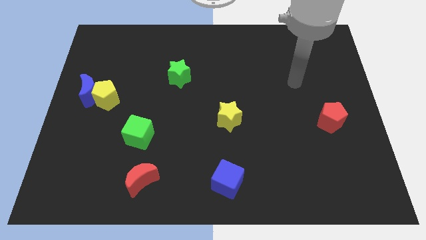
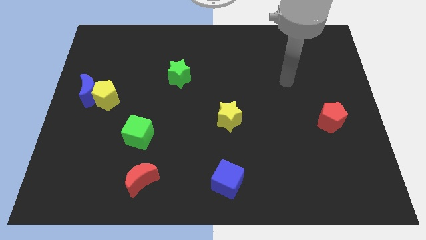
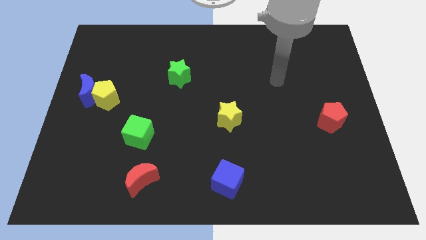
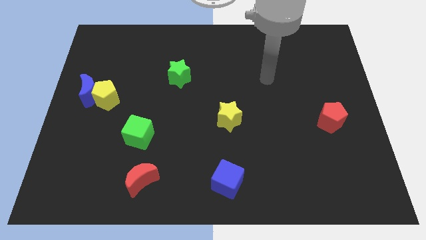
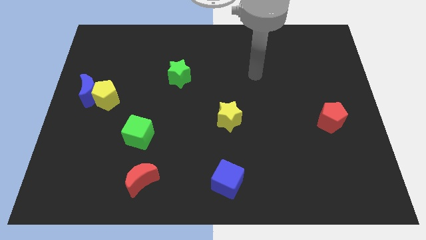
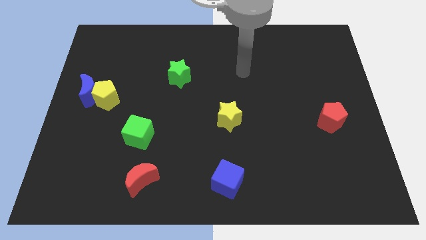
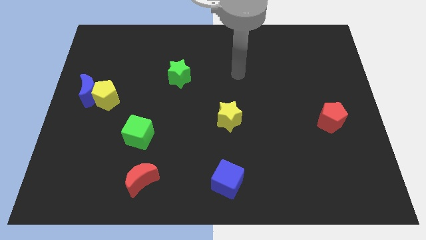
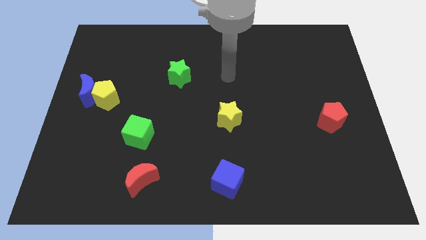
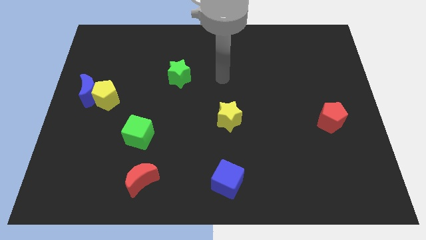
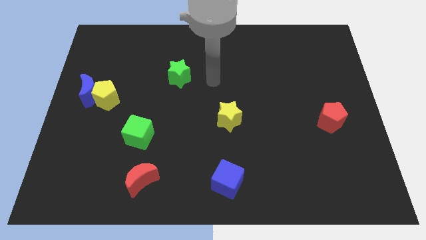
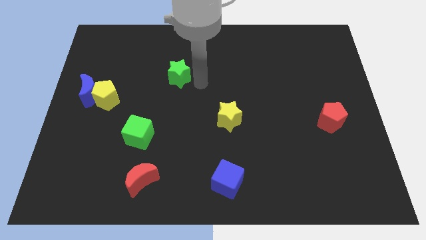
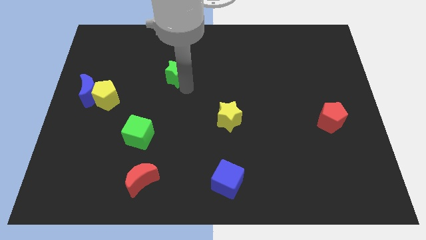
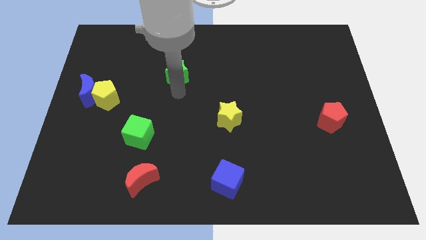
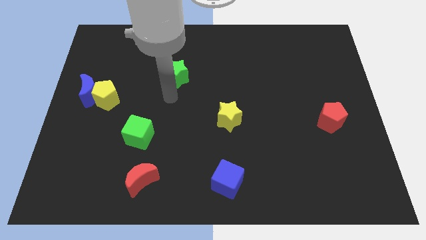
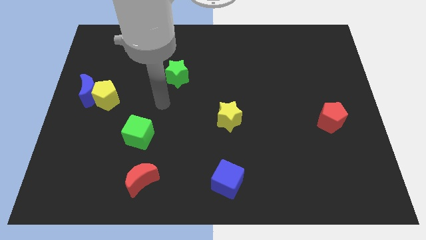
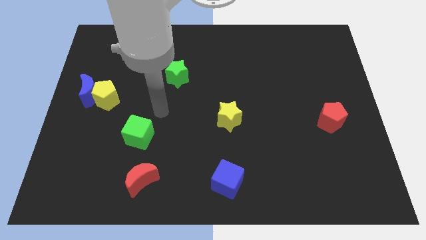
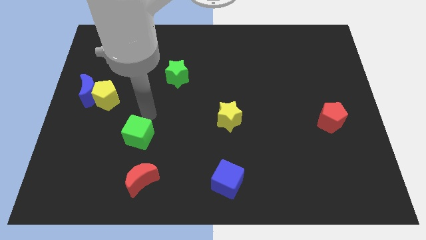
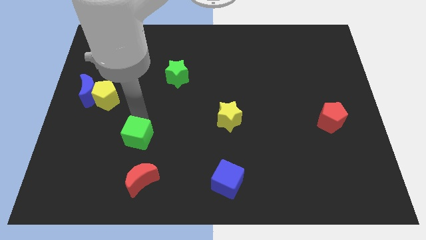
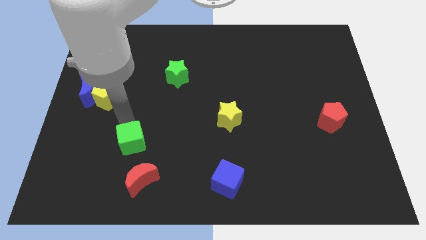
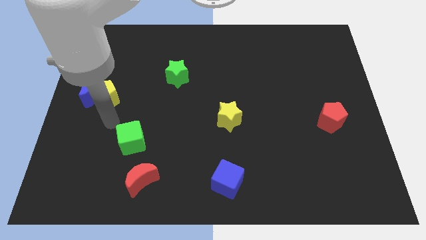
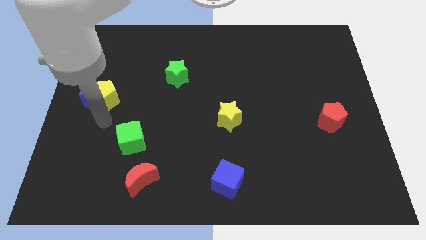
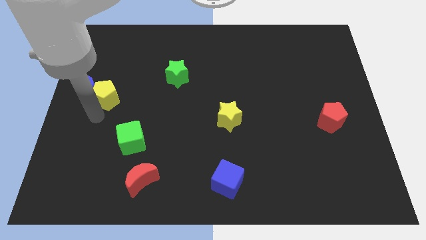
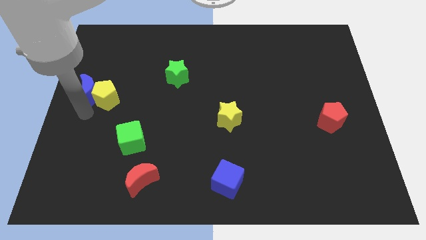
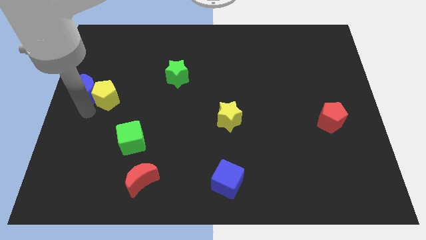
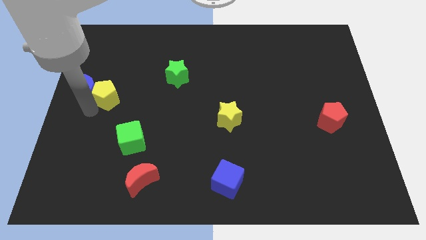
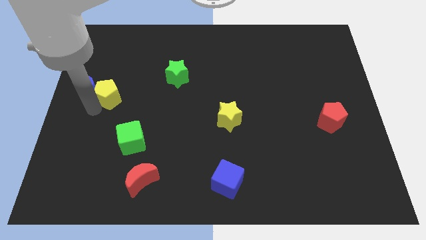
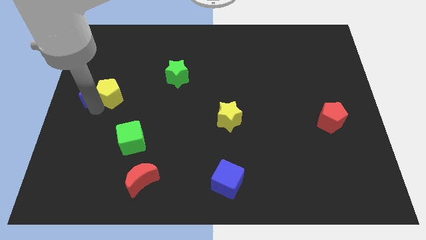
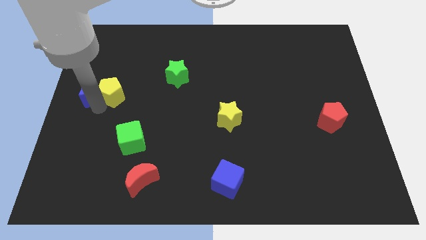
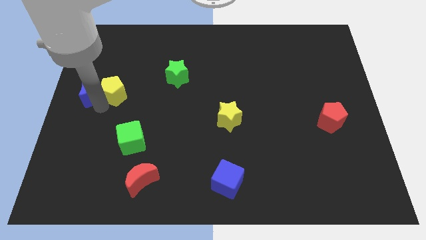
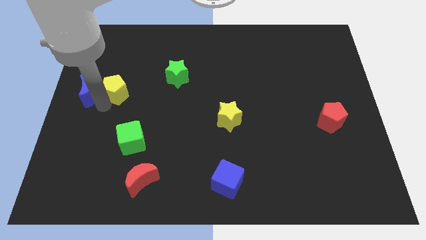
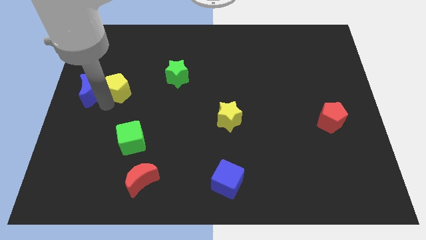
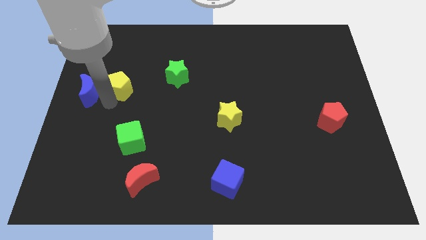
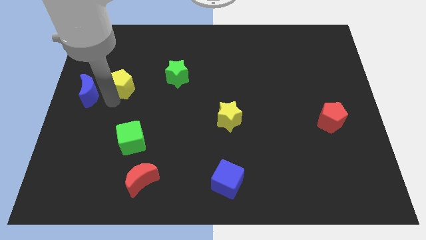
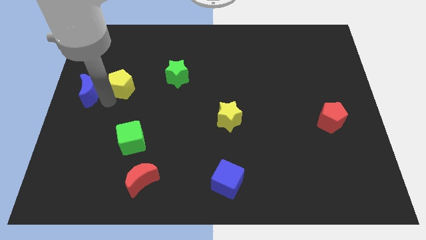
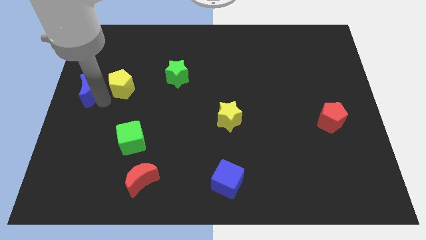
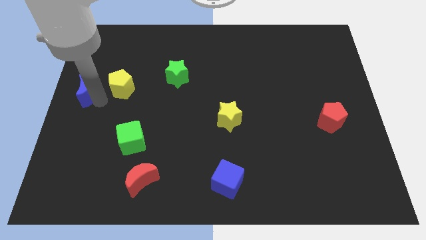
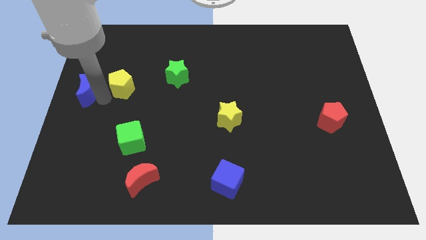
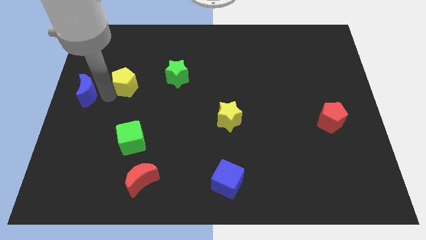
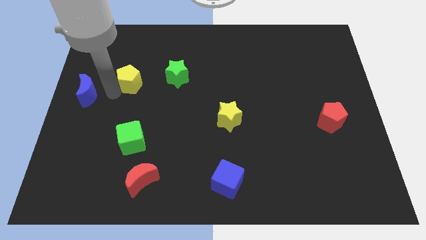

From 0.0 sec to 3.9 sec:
slightly move the yellow pentagon up and right

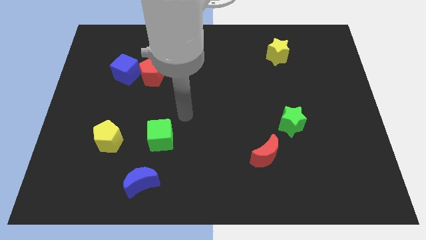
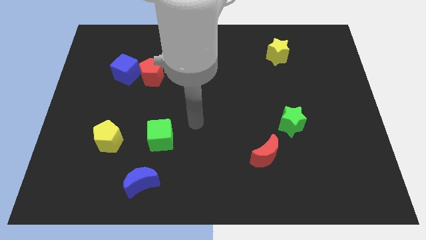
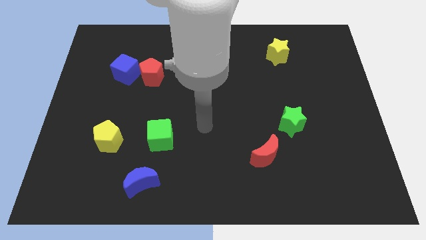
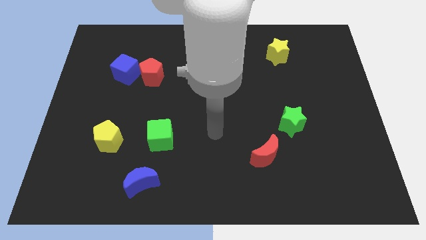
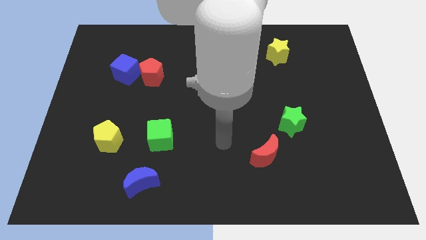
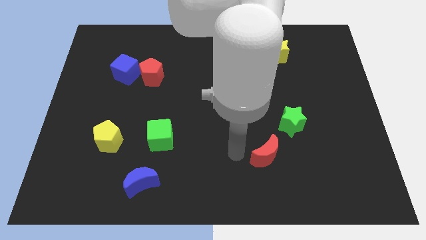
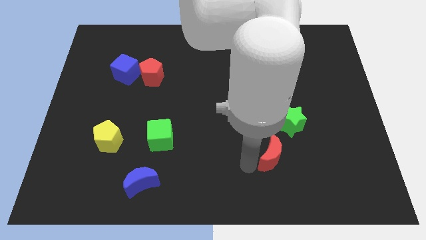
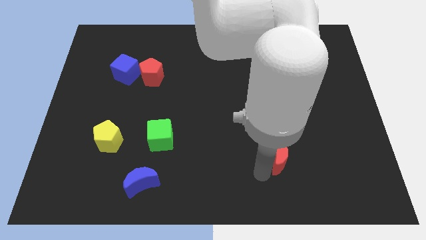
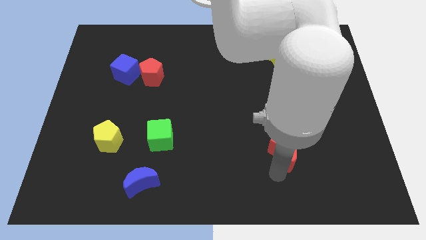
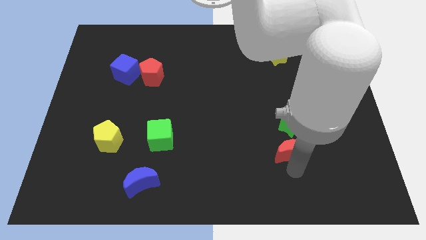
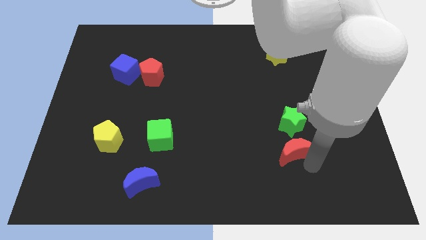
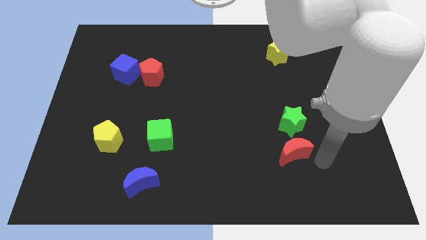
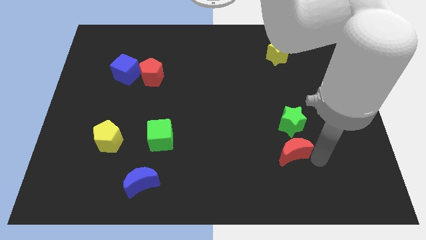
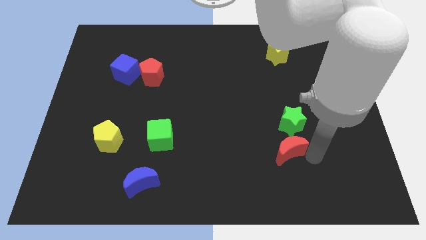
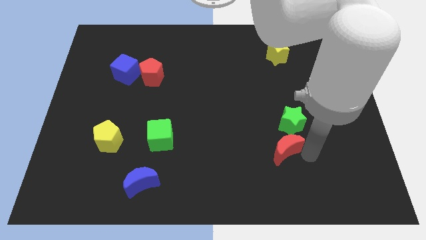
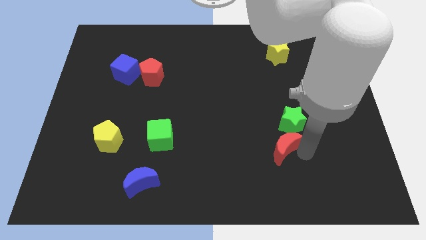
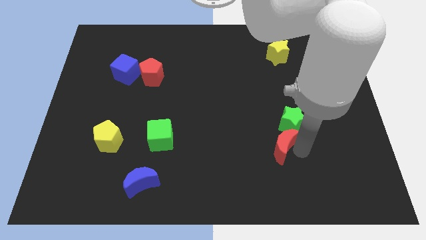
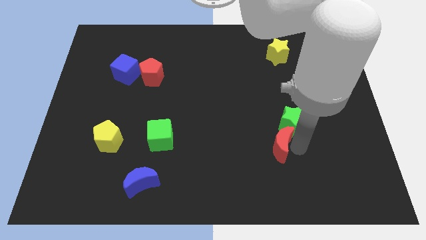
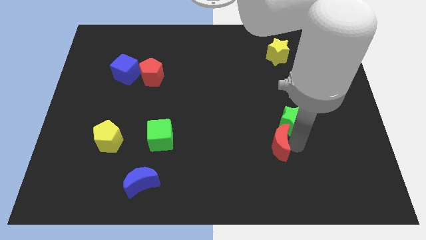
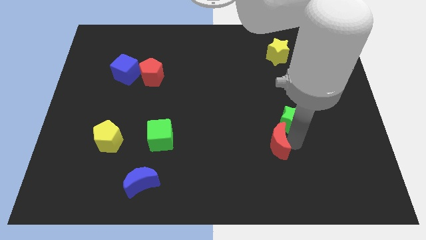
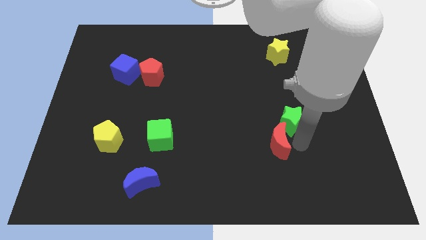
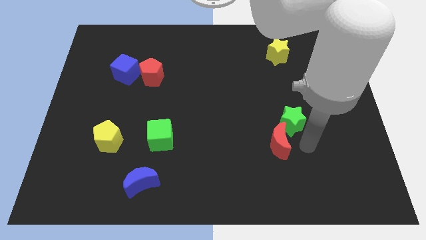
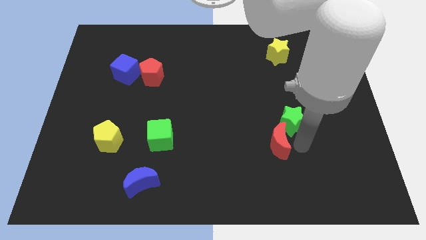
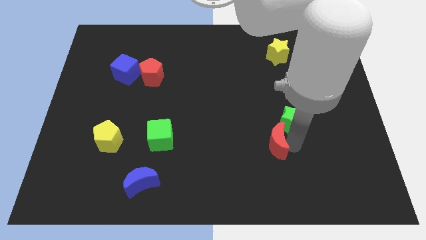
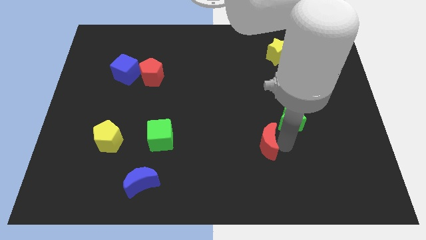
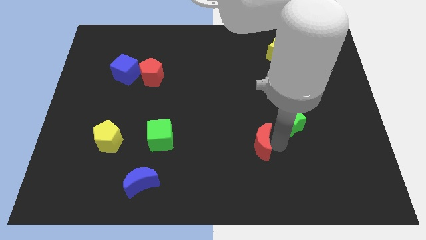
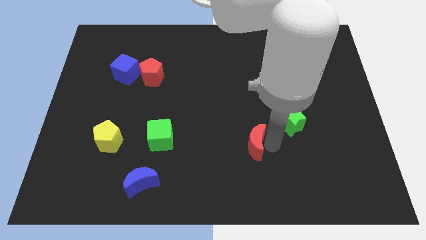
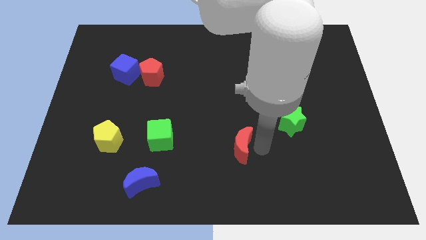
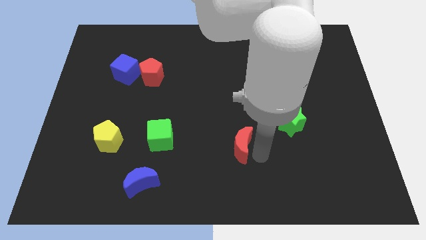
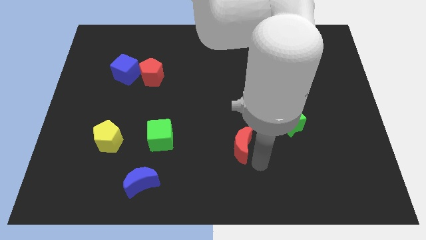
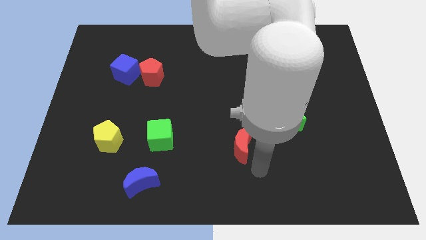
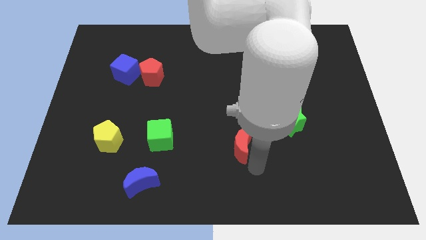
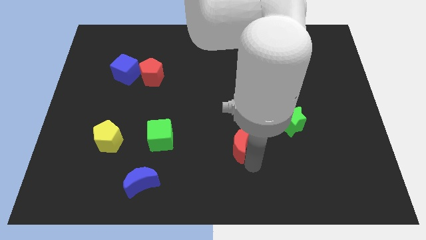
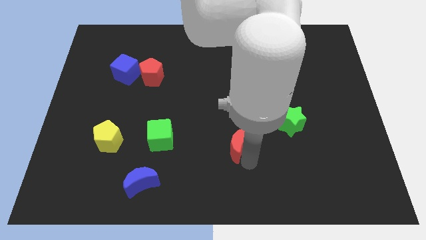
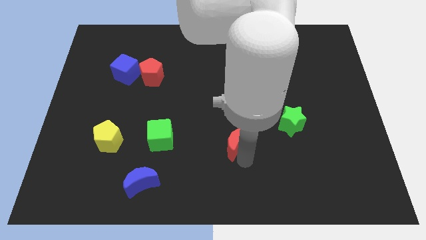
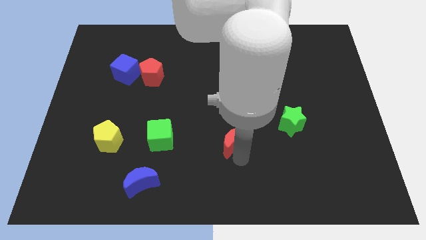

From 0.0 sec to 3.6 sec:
move the red moon slightly up and to the left

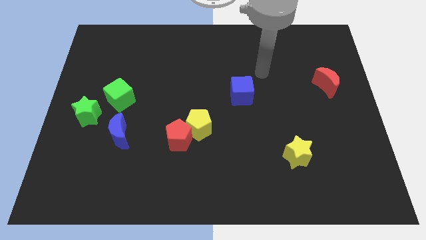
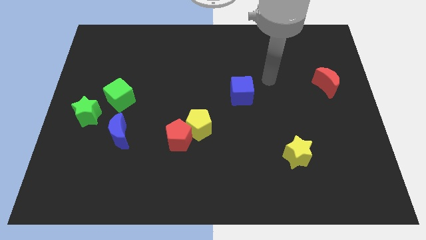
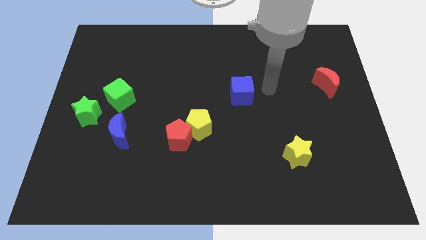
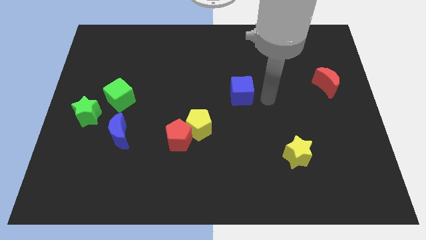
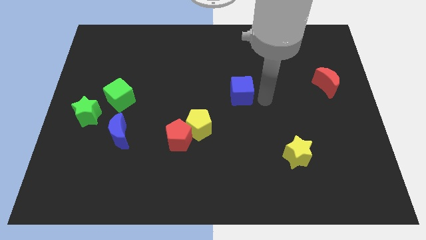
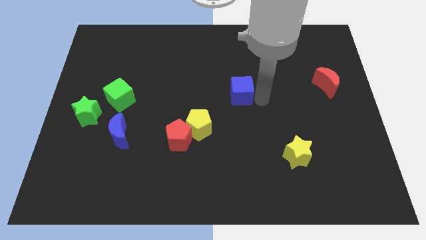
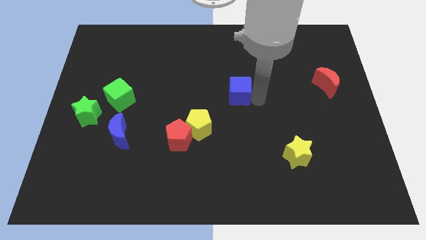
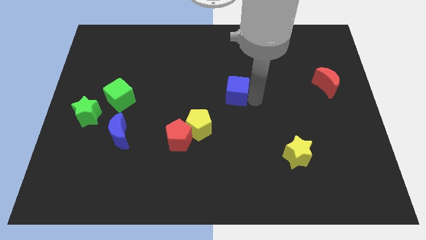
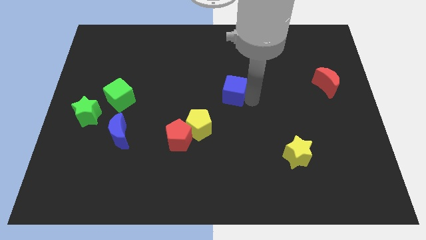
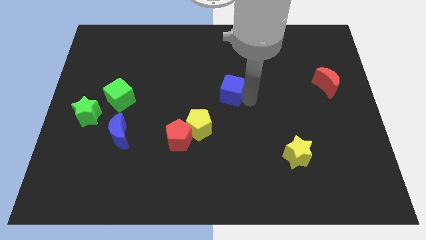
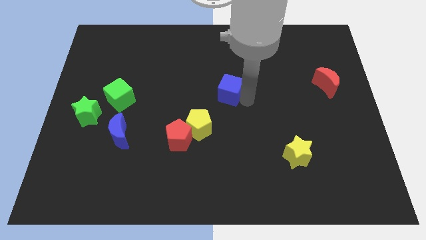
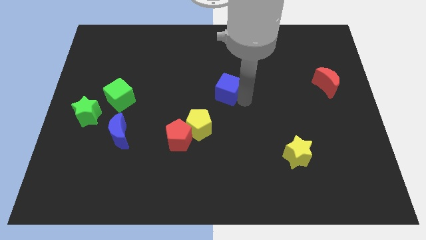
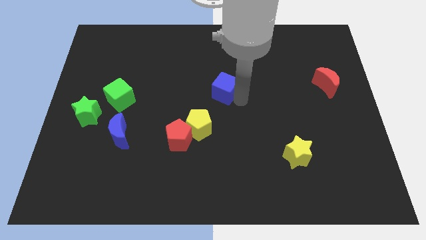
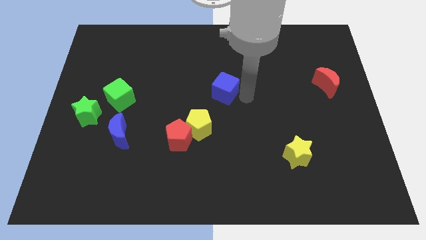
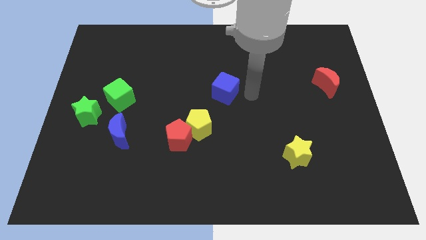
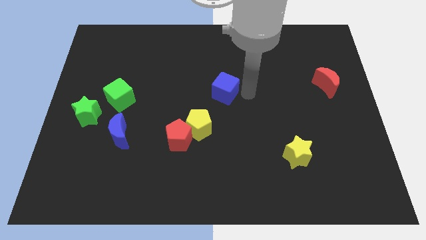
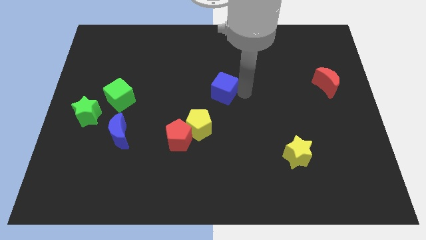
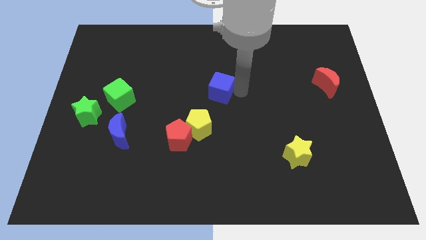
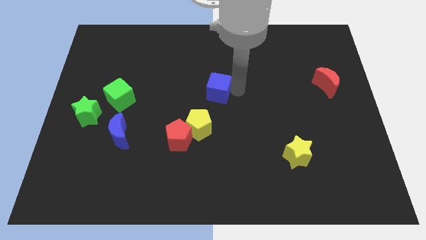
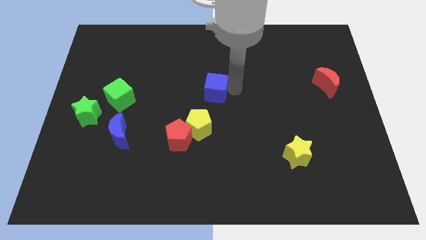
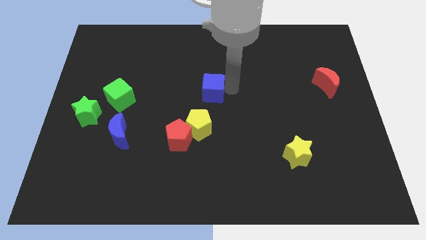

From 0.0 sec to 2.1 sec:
move the blue cube somewhat to the left
